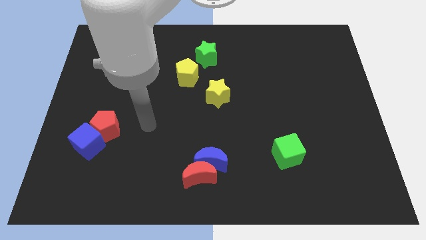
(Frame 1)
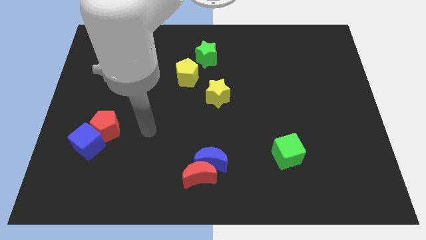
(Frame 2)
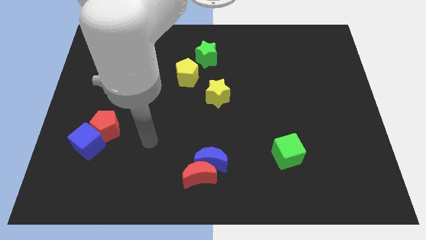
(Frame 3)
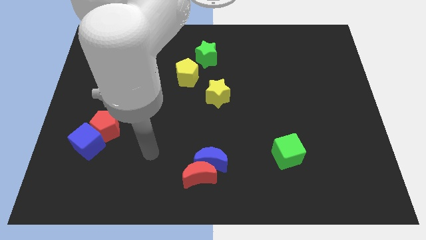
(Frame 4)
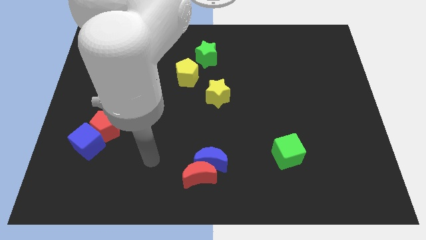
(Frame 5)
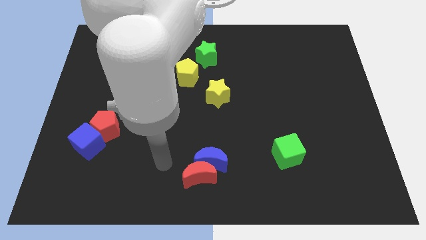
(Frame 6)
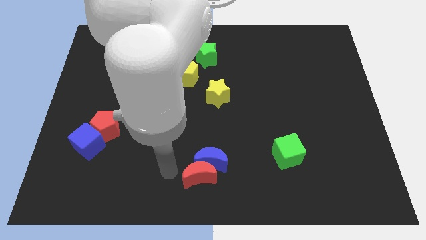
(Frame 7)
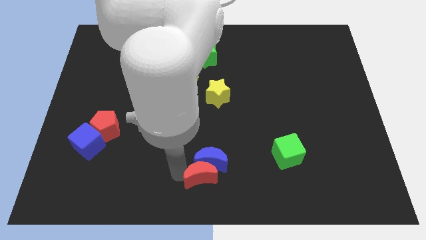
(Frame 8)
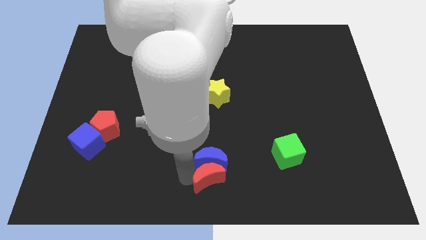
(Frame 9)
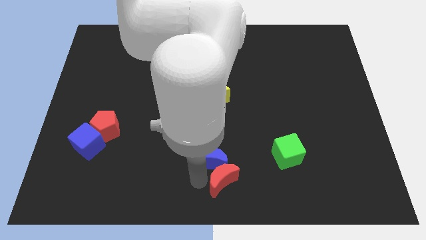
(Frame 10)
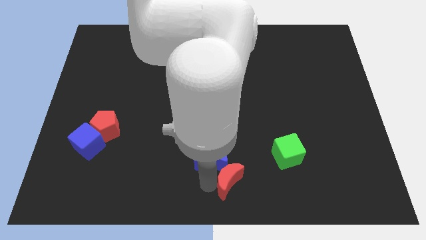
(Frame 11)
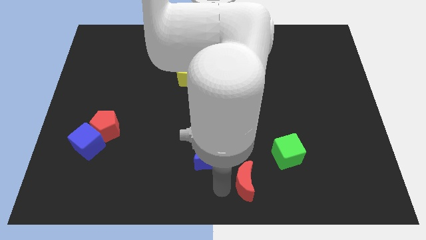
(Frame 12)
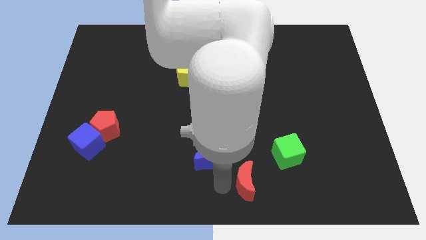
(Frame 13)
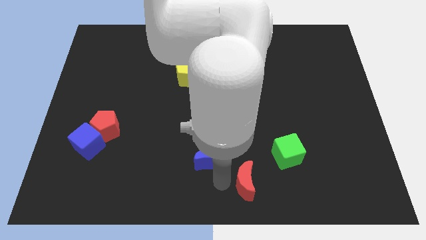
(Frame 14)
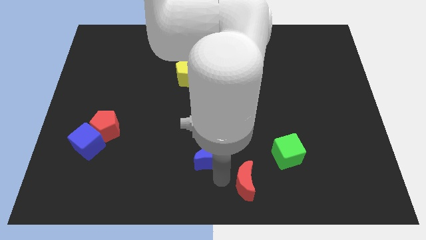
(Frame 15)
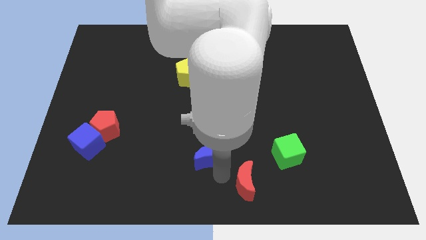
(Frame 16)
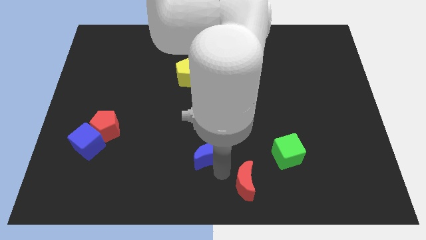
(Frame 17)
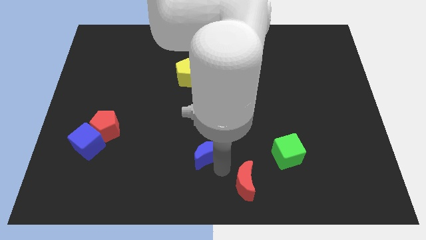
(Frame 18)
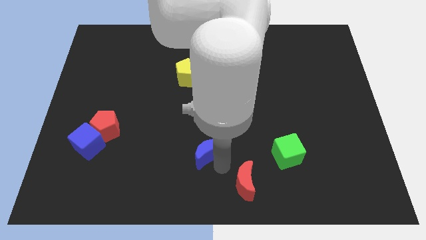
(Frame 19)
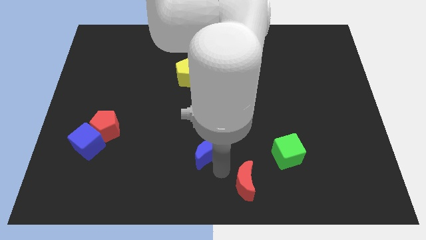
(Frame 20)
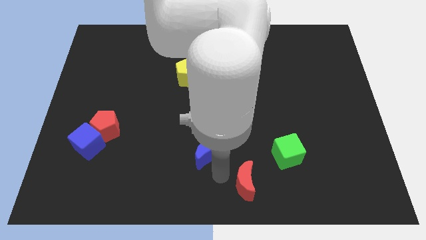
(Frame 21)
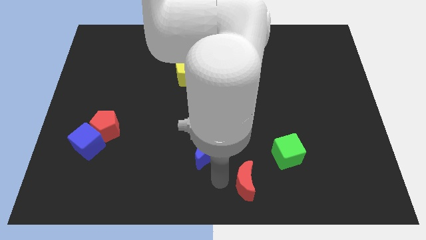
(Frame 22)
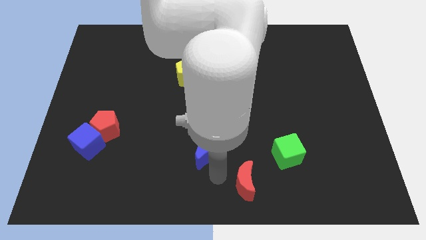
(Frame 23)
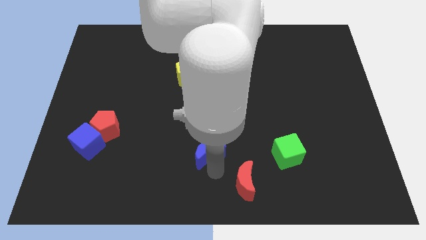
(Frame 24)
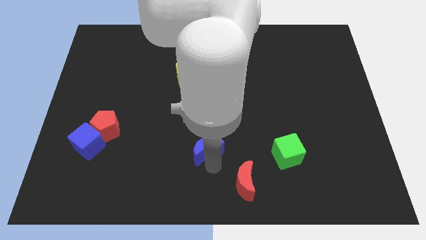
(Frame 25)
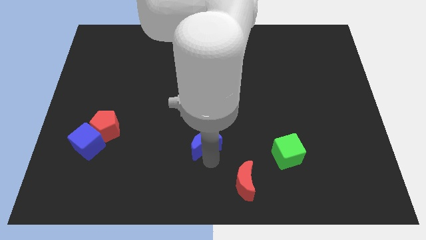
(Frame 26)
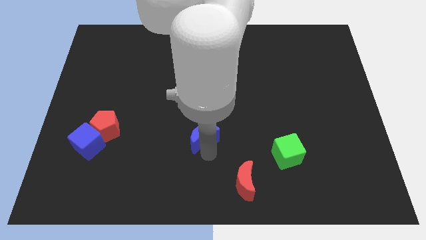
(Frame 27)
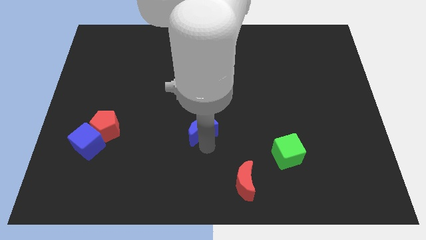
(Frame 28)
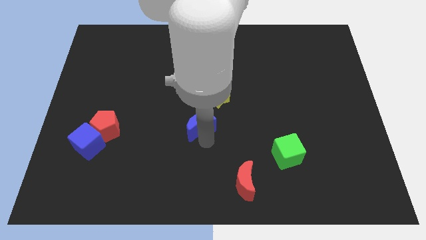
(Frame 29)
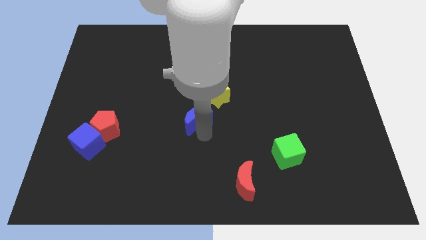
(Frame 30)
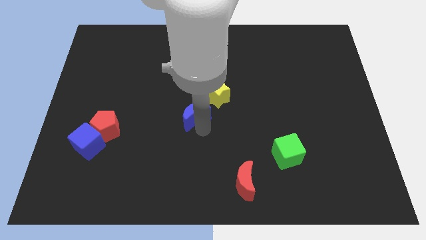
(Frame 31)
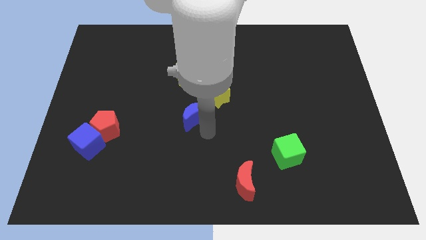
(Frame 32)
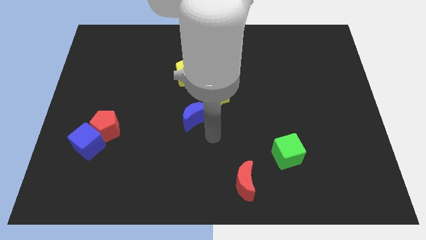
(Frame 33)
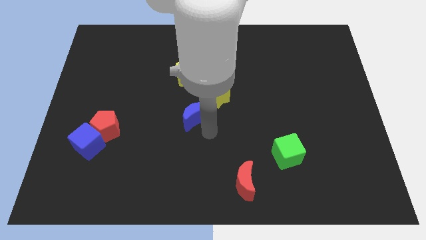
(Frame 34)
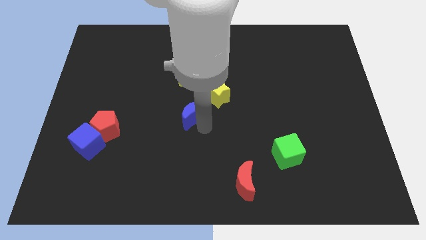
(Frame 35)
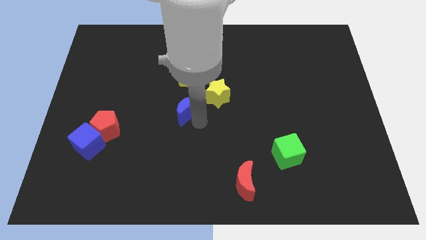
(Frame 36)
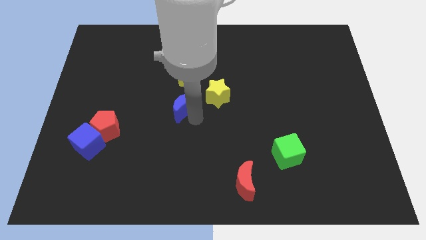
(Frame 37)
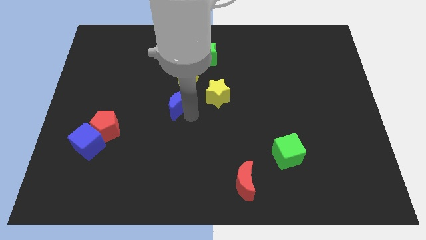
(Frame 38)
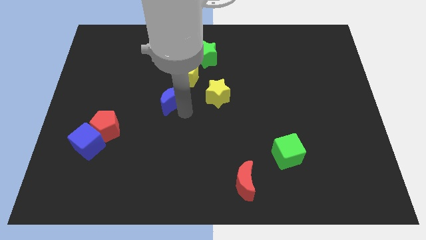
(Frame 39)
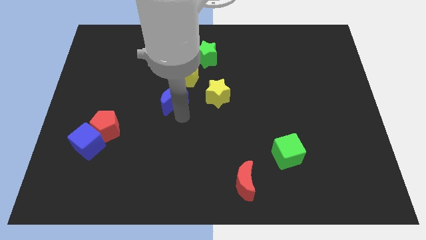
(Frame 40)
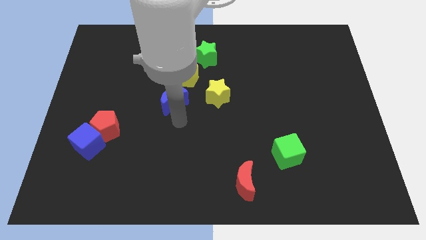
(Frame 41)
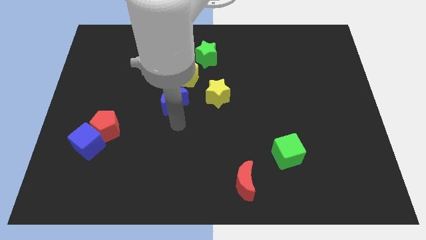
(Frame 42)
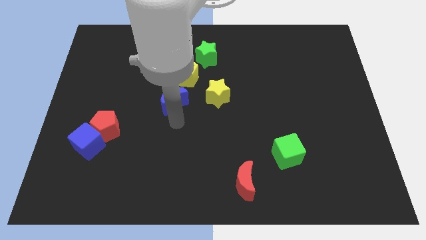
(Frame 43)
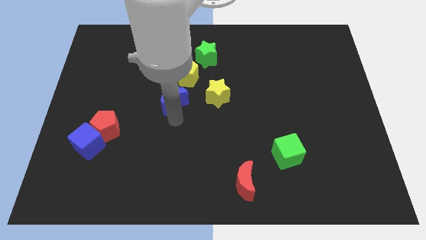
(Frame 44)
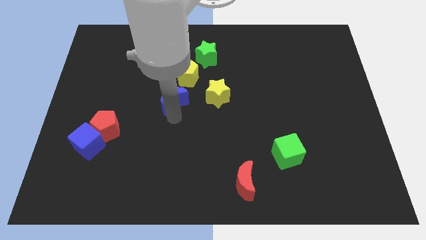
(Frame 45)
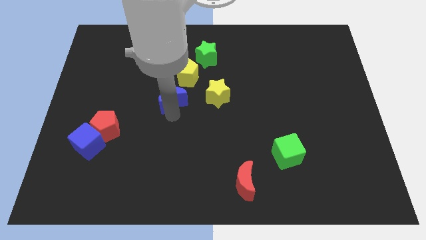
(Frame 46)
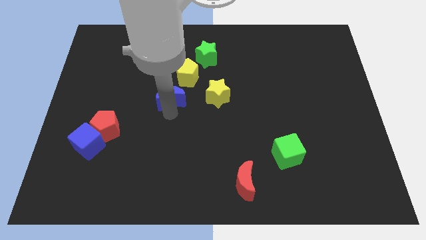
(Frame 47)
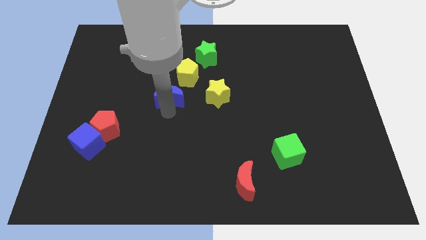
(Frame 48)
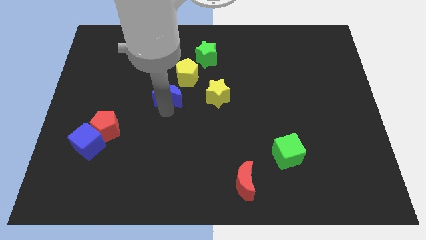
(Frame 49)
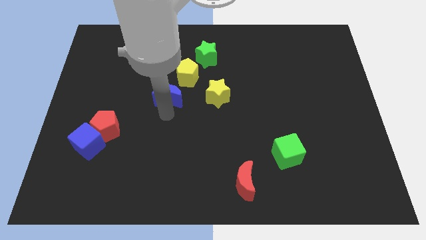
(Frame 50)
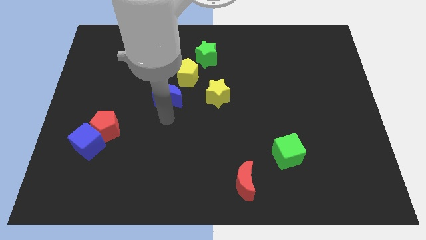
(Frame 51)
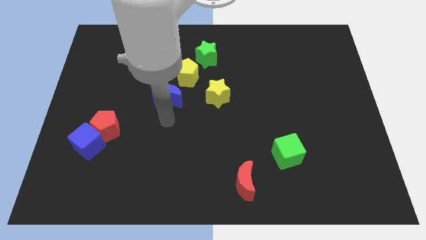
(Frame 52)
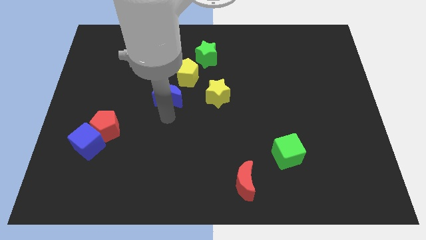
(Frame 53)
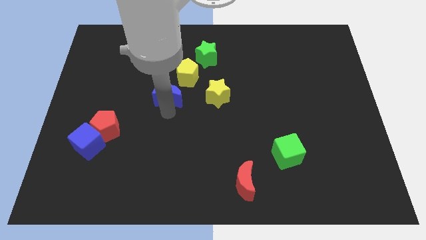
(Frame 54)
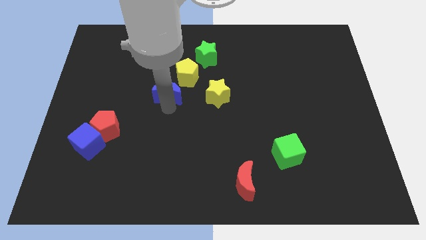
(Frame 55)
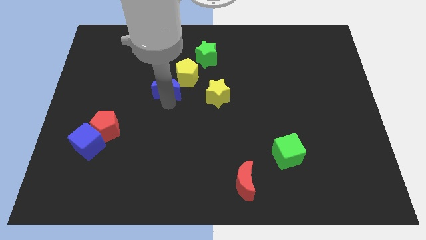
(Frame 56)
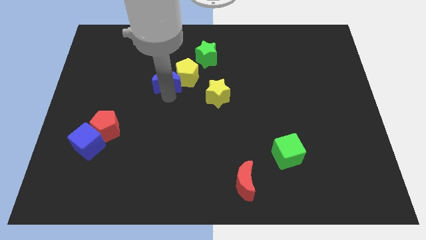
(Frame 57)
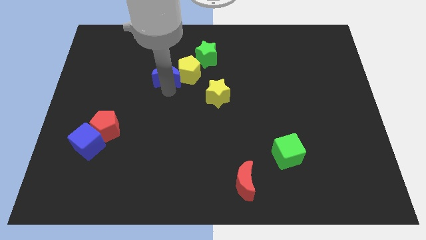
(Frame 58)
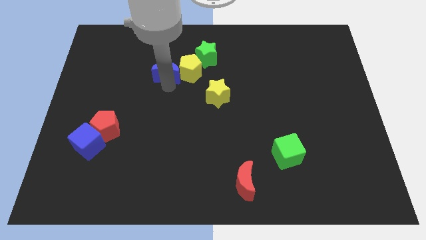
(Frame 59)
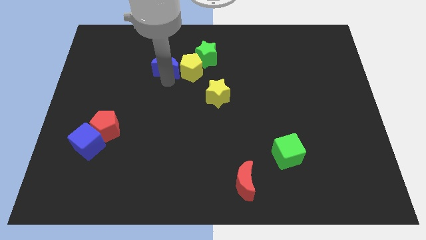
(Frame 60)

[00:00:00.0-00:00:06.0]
move the blue moon to the left of the green star

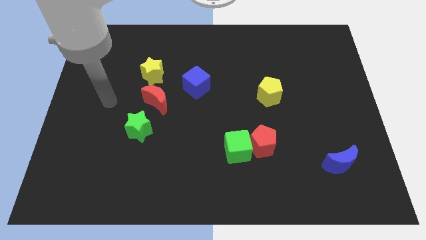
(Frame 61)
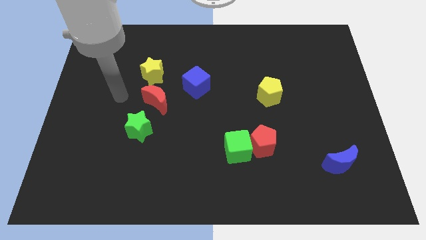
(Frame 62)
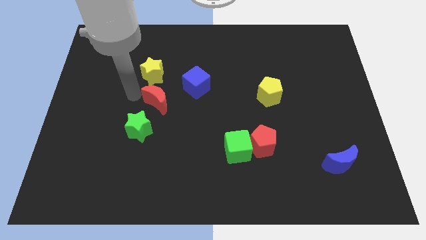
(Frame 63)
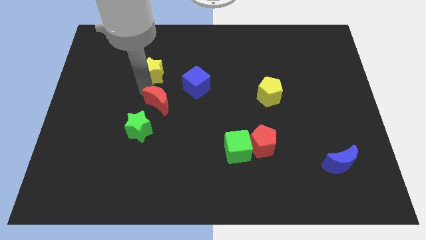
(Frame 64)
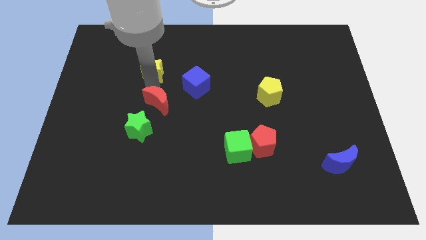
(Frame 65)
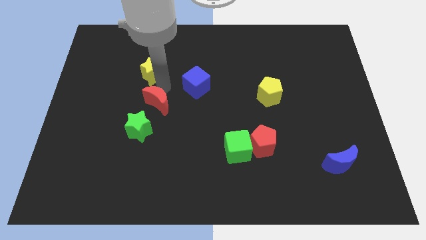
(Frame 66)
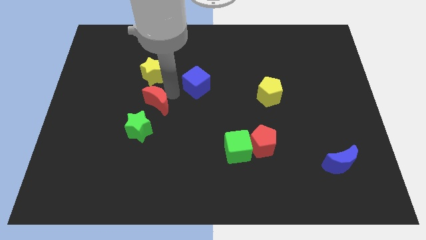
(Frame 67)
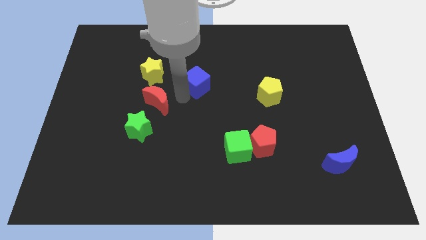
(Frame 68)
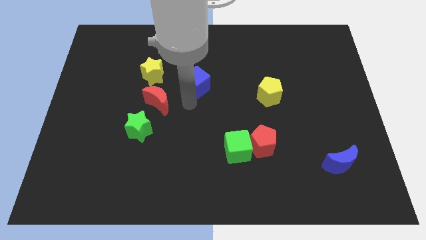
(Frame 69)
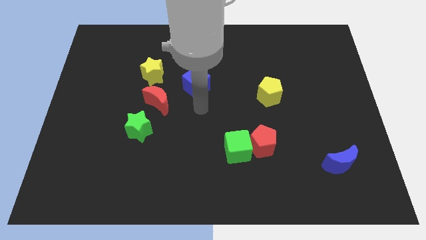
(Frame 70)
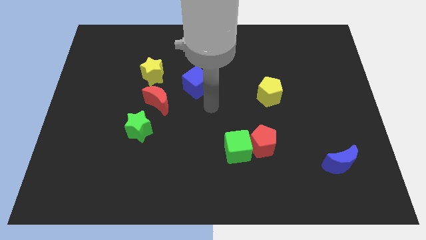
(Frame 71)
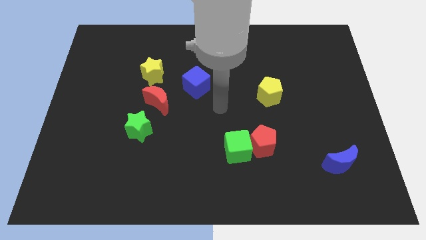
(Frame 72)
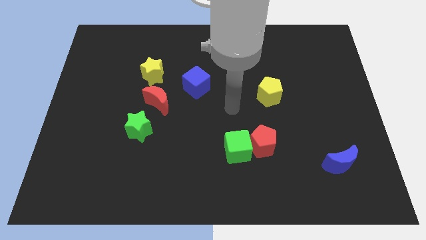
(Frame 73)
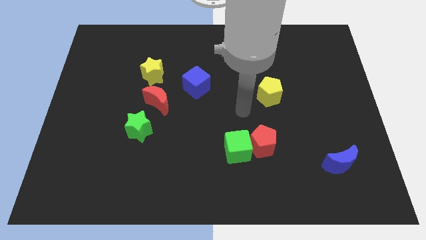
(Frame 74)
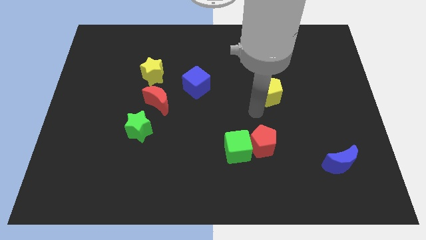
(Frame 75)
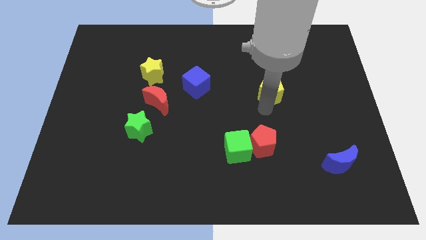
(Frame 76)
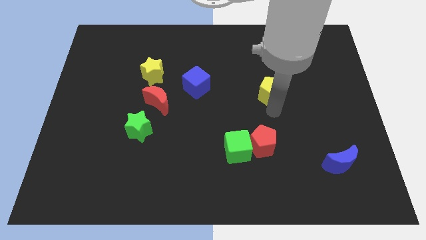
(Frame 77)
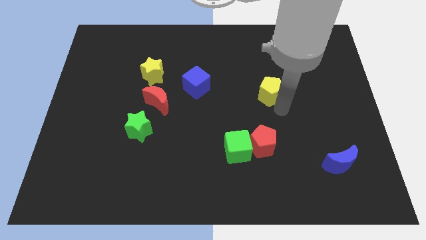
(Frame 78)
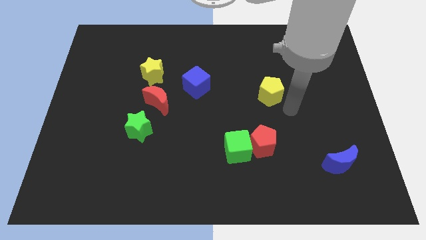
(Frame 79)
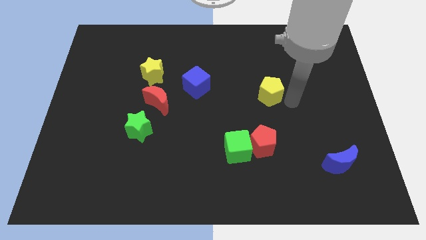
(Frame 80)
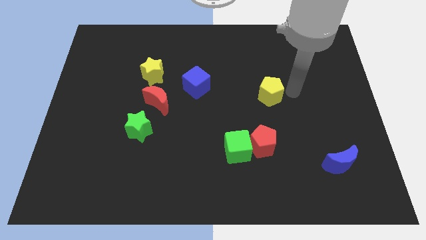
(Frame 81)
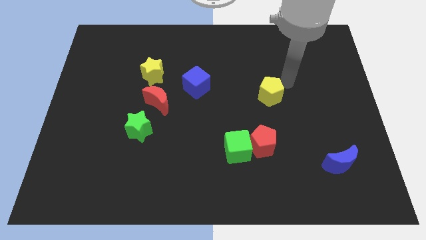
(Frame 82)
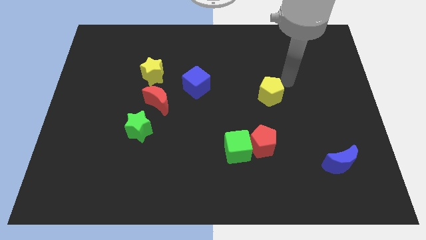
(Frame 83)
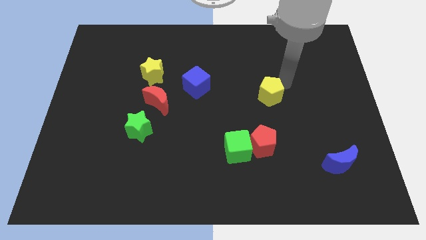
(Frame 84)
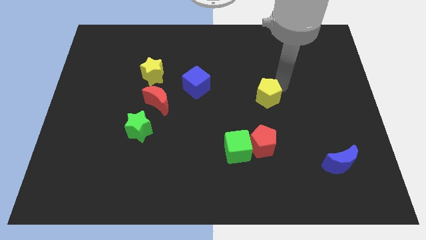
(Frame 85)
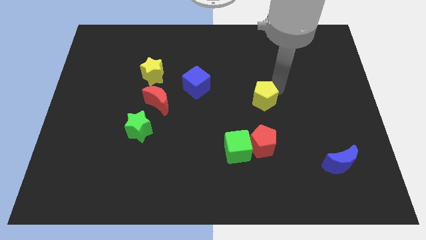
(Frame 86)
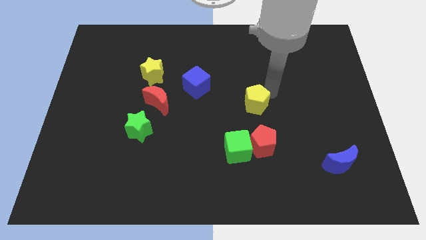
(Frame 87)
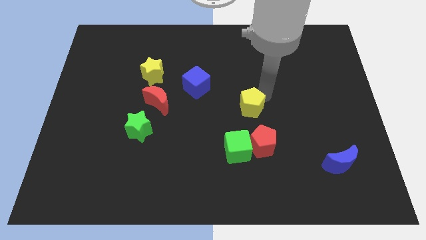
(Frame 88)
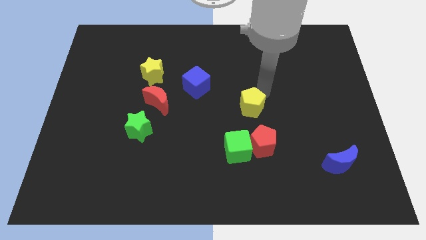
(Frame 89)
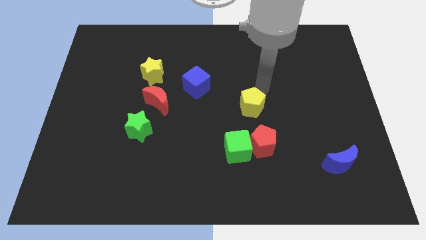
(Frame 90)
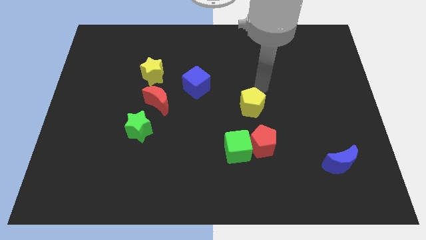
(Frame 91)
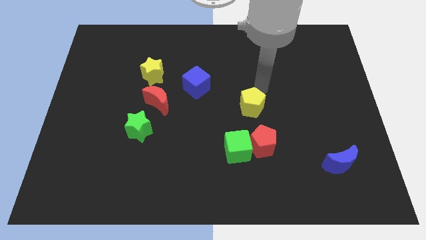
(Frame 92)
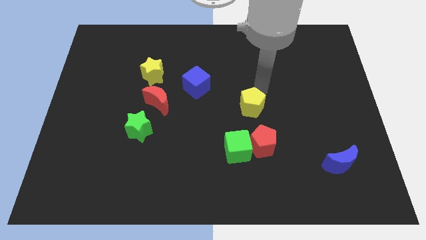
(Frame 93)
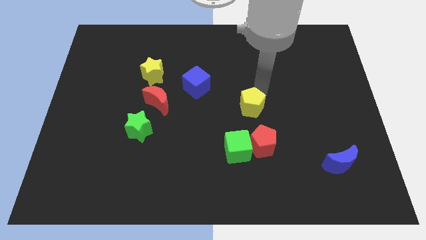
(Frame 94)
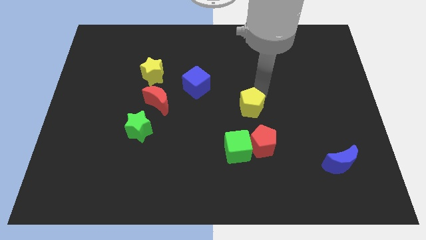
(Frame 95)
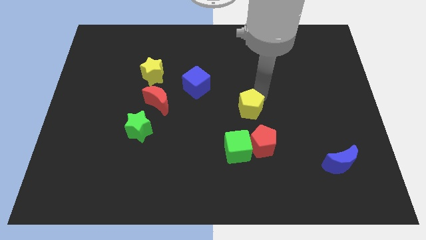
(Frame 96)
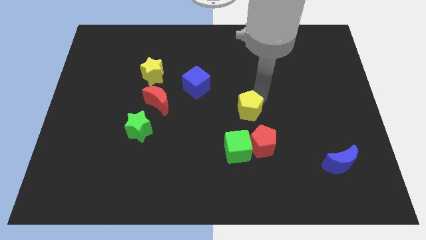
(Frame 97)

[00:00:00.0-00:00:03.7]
slide the yellow pentagon to the top left of the red pentagon
